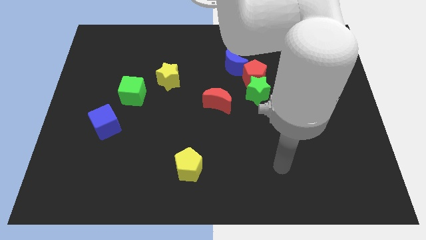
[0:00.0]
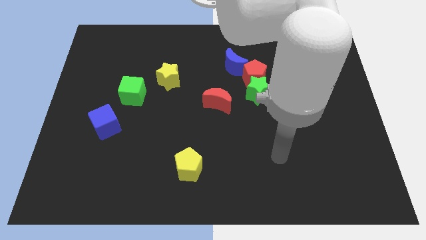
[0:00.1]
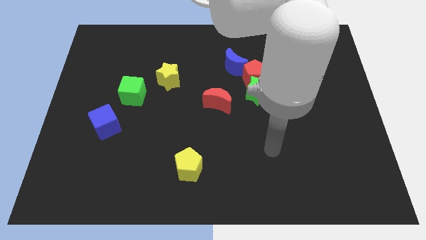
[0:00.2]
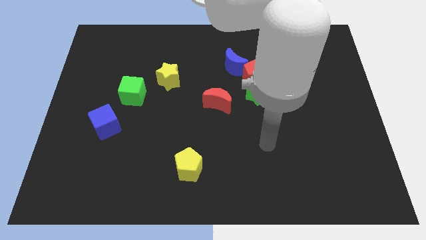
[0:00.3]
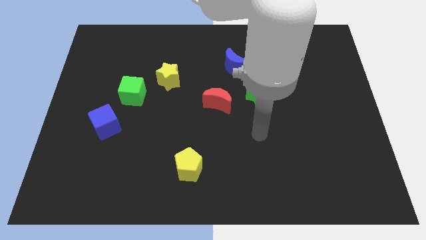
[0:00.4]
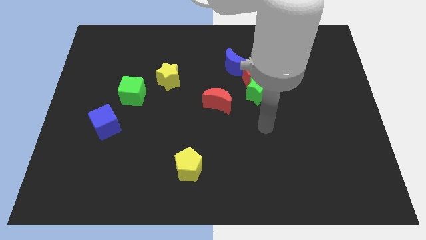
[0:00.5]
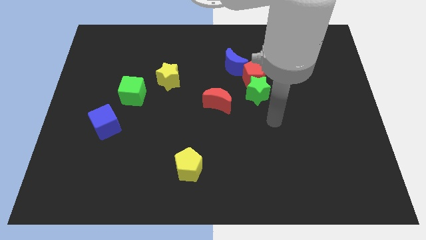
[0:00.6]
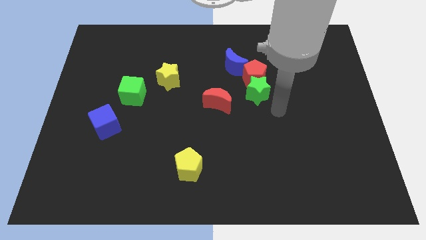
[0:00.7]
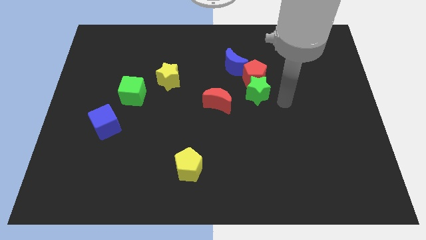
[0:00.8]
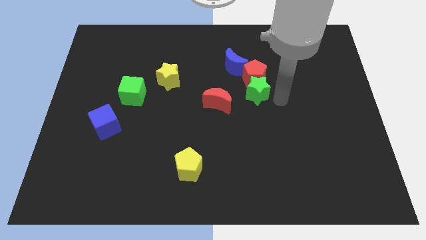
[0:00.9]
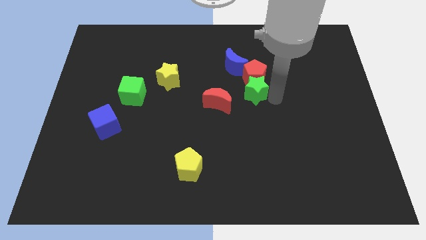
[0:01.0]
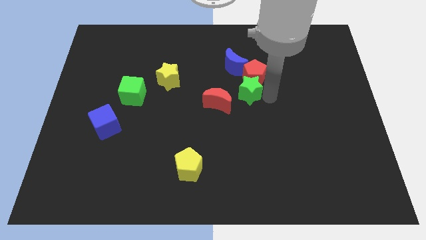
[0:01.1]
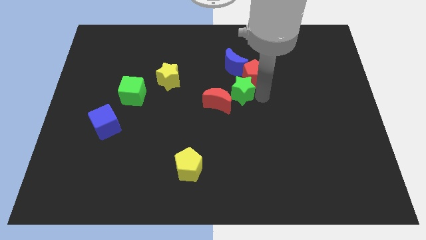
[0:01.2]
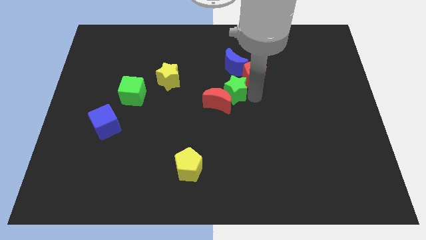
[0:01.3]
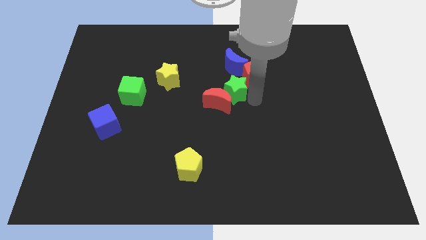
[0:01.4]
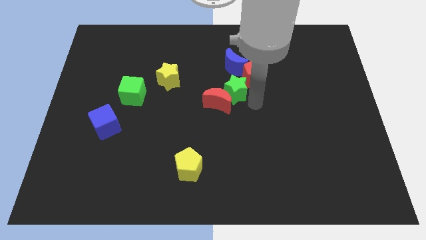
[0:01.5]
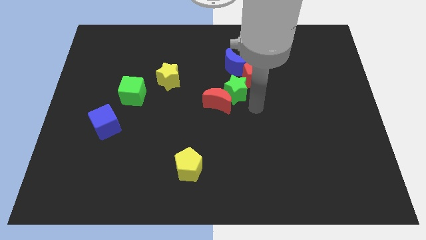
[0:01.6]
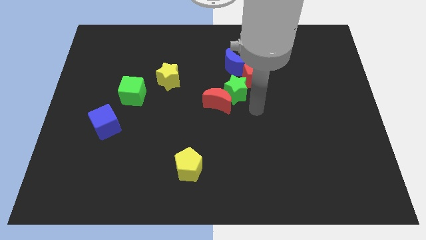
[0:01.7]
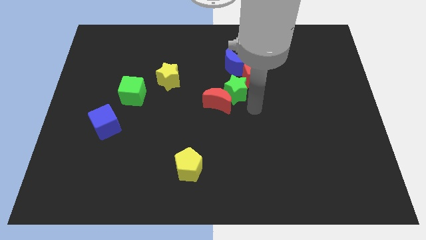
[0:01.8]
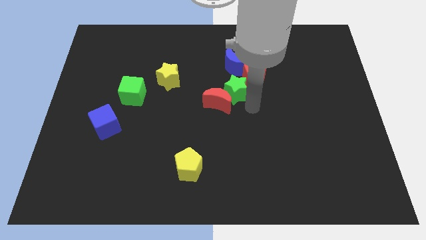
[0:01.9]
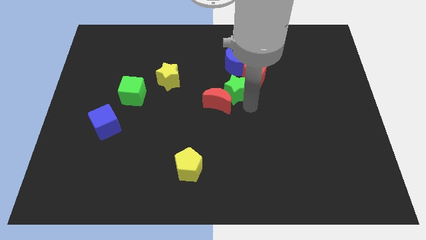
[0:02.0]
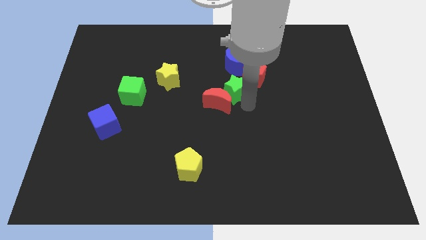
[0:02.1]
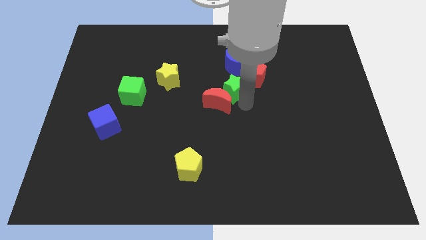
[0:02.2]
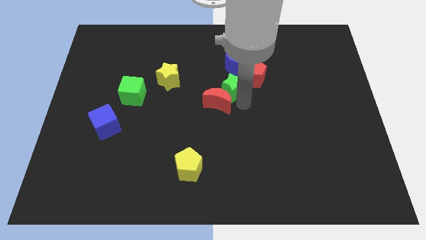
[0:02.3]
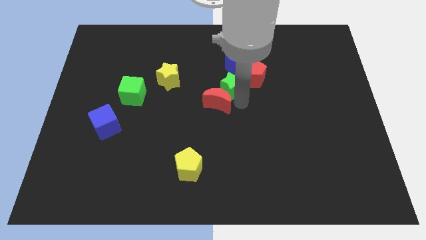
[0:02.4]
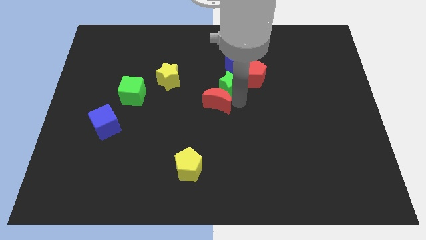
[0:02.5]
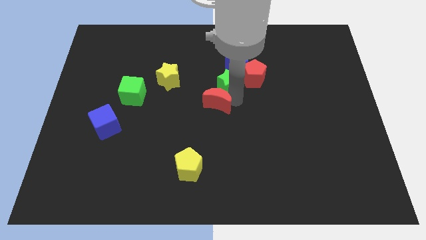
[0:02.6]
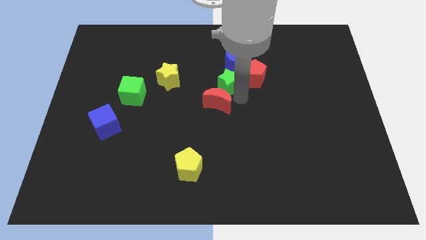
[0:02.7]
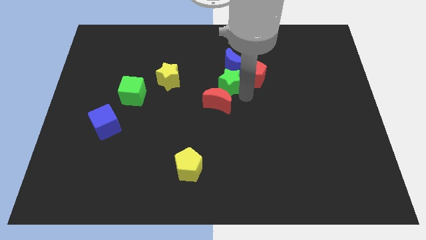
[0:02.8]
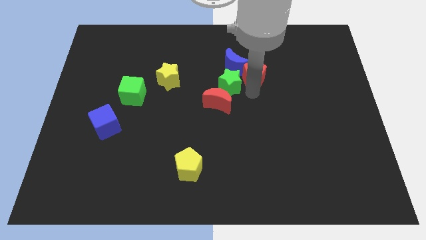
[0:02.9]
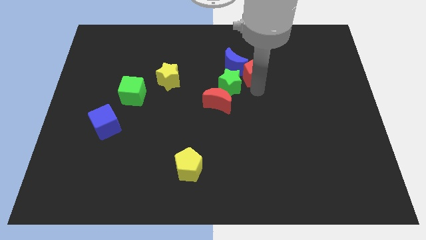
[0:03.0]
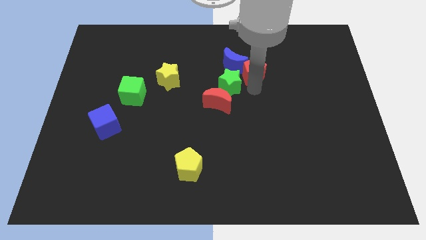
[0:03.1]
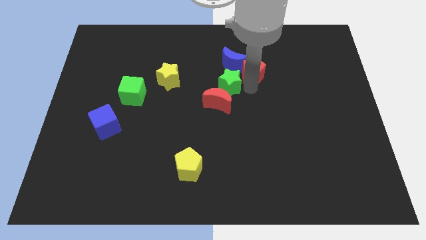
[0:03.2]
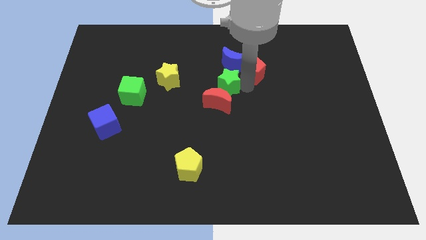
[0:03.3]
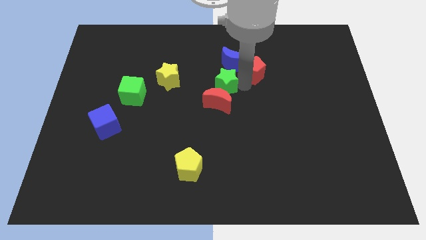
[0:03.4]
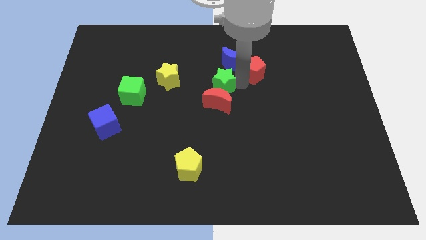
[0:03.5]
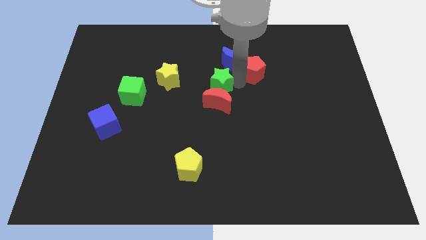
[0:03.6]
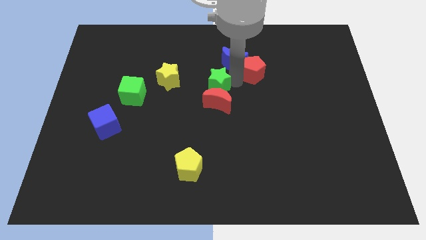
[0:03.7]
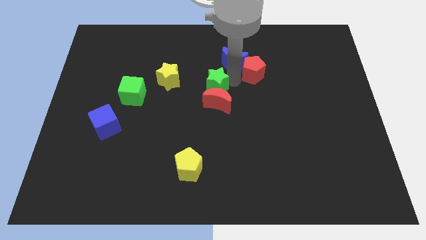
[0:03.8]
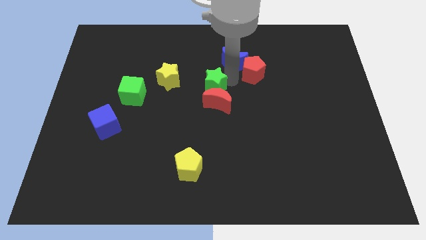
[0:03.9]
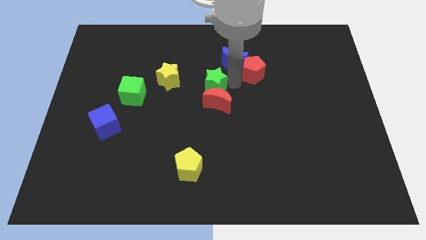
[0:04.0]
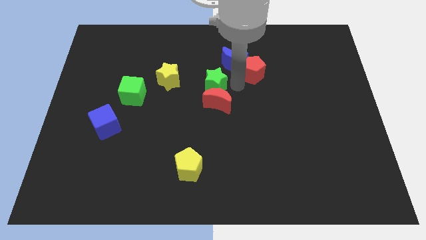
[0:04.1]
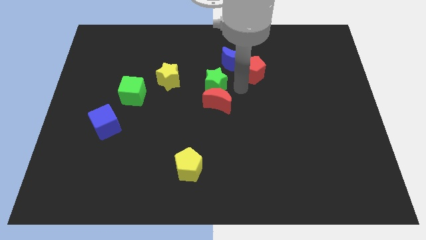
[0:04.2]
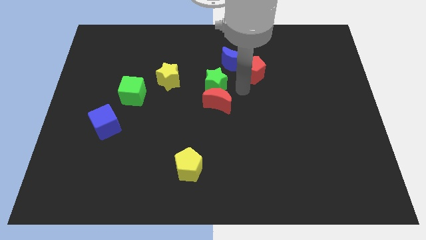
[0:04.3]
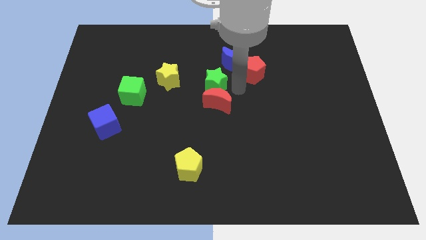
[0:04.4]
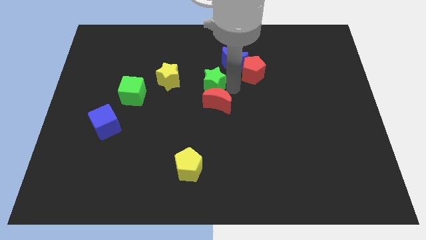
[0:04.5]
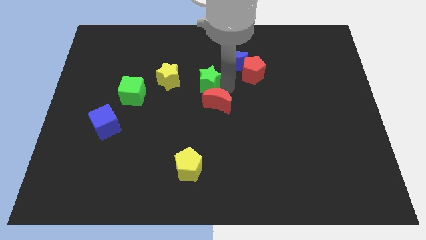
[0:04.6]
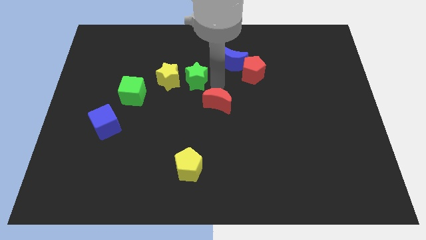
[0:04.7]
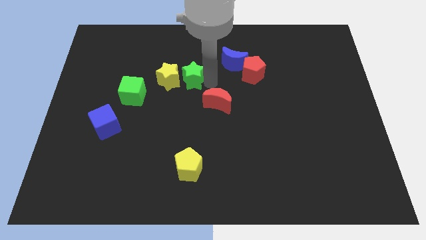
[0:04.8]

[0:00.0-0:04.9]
put the green star next to the yellow star

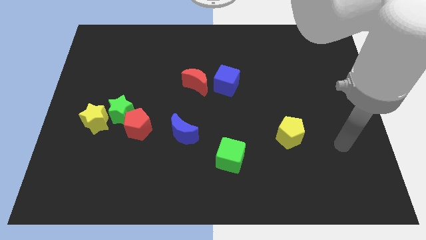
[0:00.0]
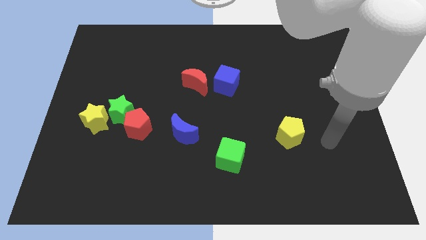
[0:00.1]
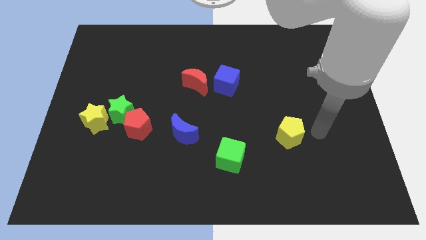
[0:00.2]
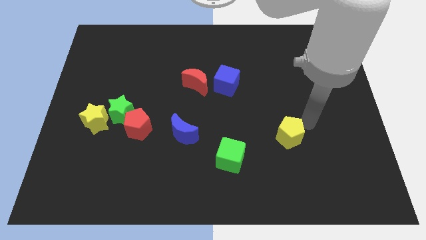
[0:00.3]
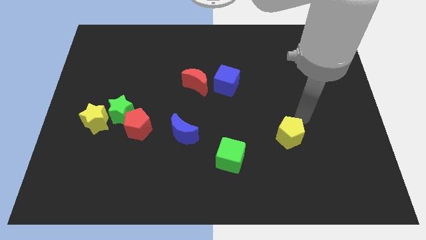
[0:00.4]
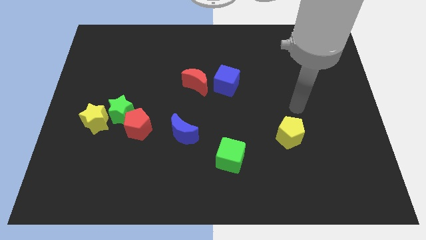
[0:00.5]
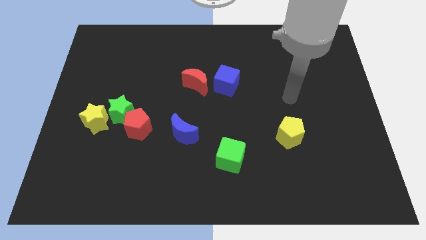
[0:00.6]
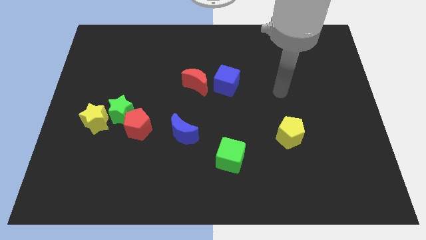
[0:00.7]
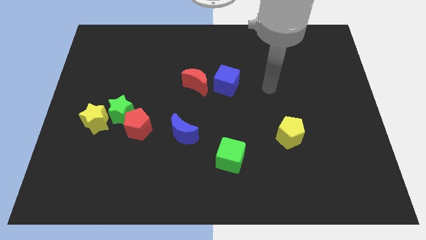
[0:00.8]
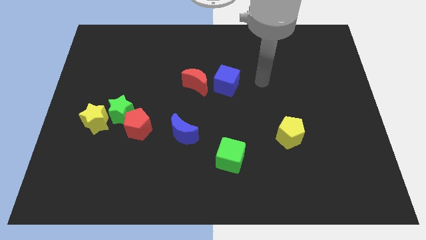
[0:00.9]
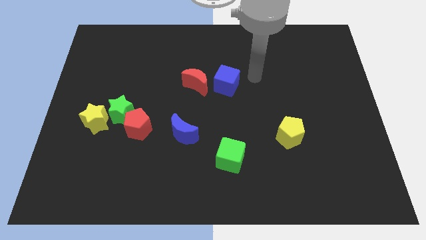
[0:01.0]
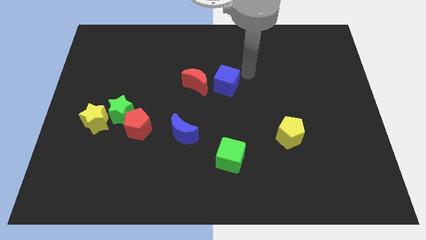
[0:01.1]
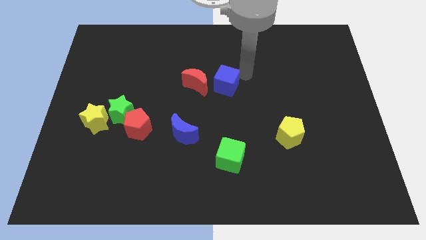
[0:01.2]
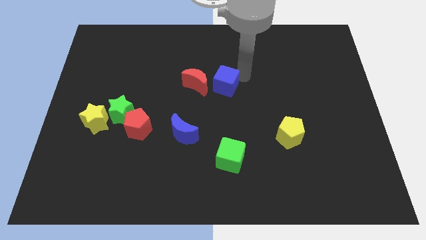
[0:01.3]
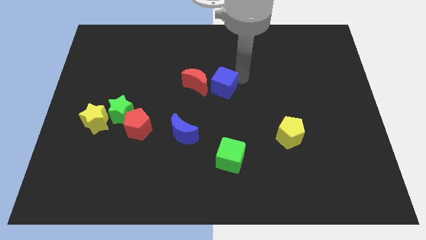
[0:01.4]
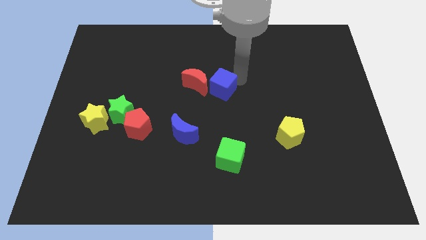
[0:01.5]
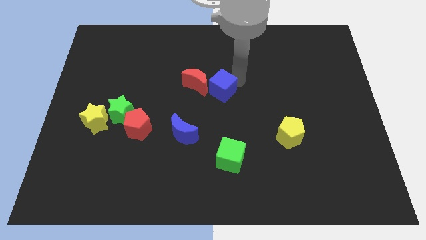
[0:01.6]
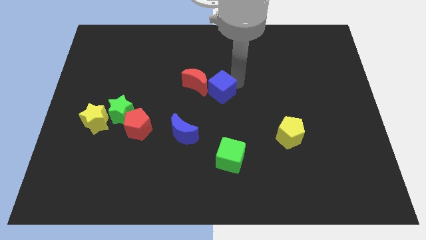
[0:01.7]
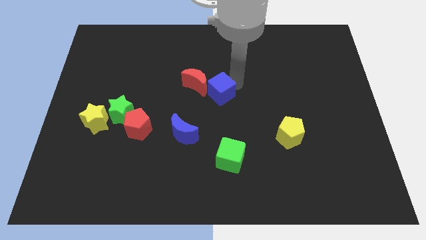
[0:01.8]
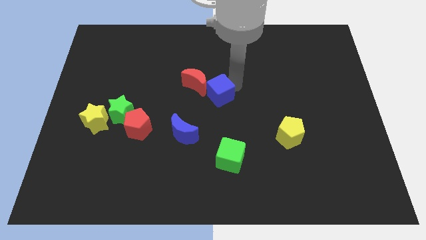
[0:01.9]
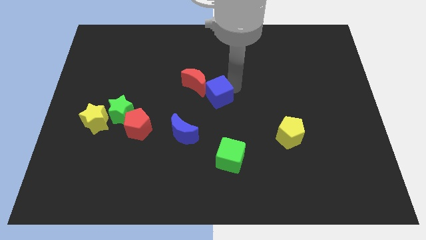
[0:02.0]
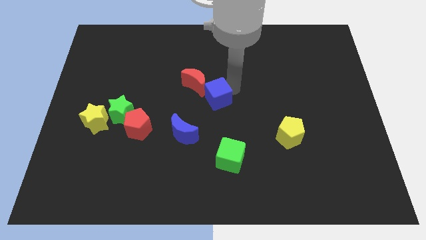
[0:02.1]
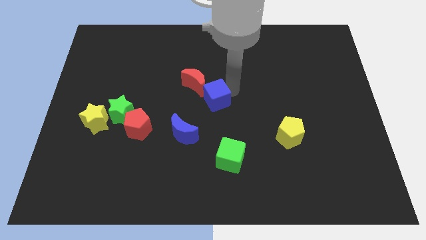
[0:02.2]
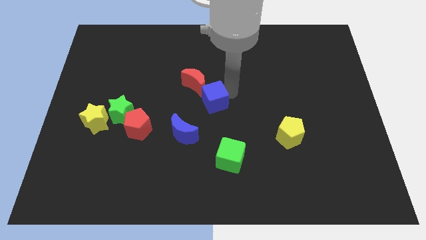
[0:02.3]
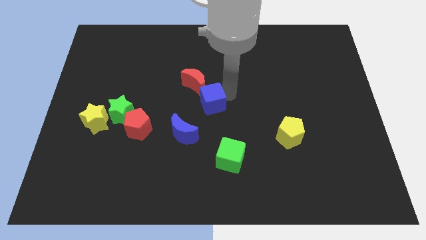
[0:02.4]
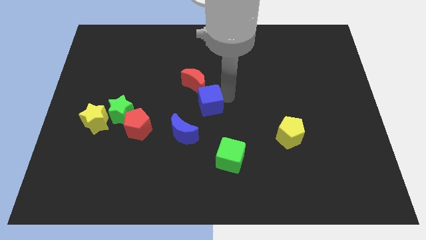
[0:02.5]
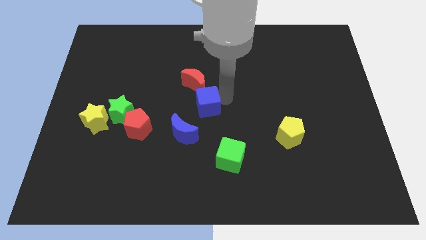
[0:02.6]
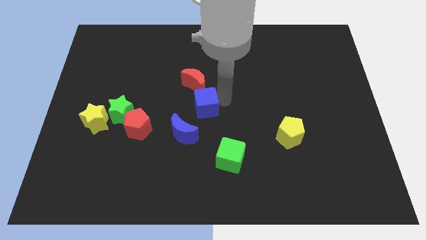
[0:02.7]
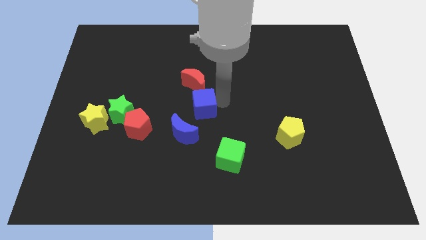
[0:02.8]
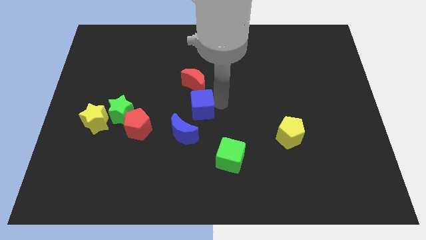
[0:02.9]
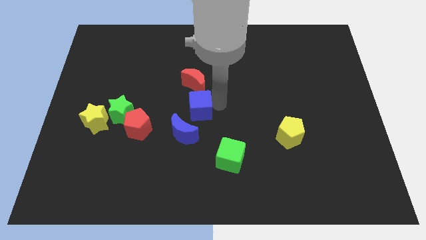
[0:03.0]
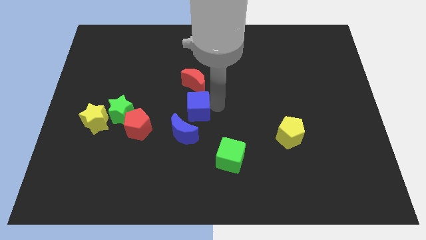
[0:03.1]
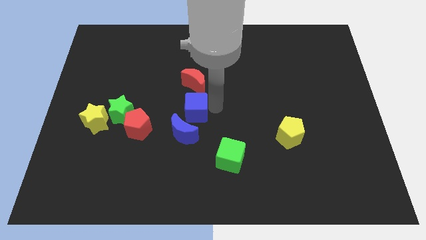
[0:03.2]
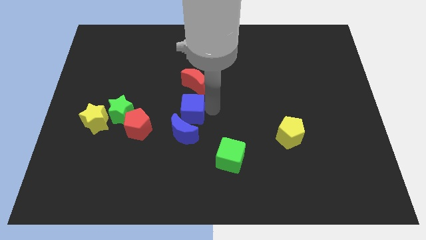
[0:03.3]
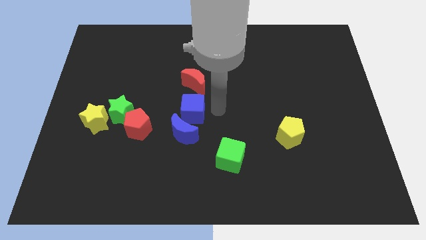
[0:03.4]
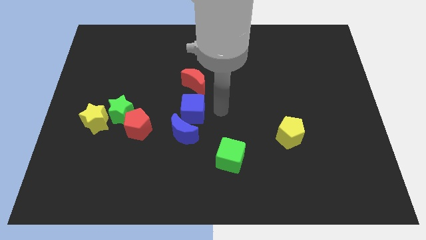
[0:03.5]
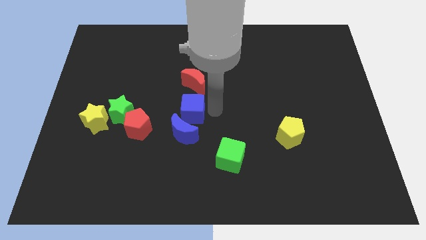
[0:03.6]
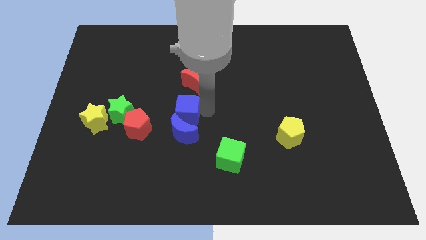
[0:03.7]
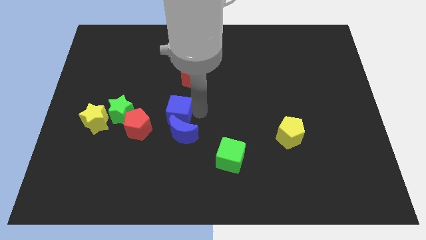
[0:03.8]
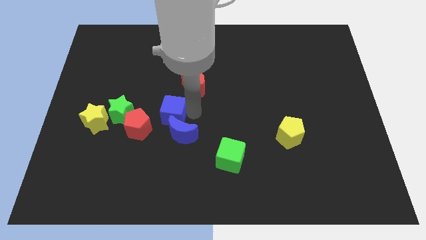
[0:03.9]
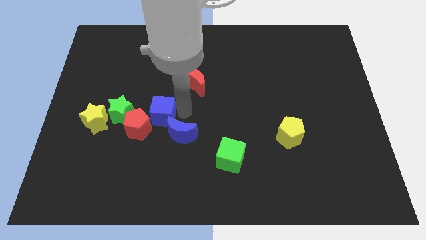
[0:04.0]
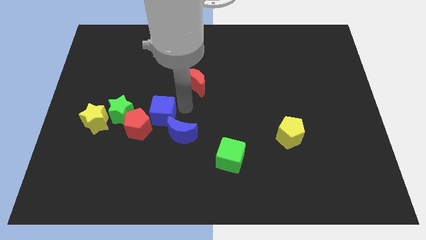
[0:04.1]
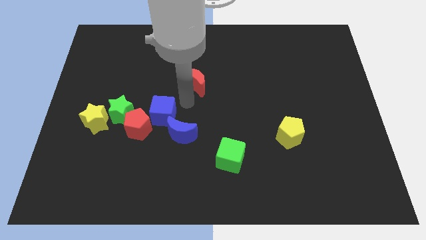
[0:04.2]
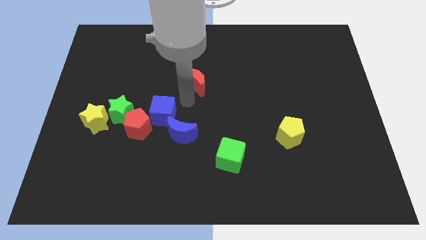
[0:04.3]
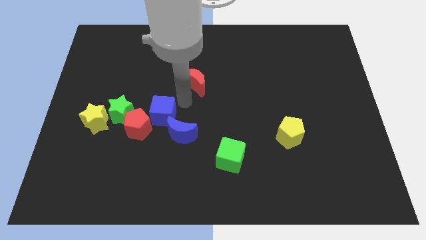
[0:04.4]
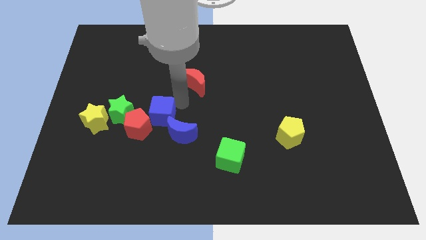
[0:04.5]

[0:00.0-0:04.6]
move the blue cube next to the red pentagon
